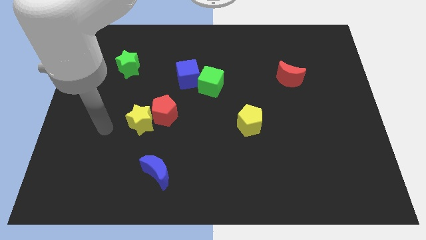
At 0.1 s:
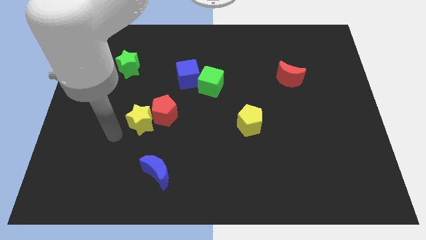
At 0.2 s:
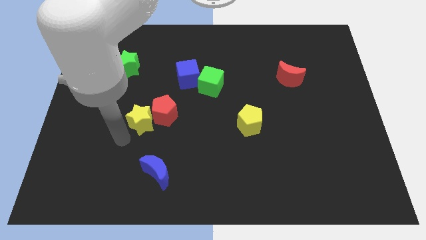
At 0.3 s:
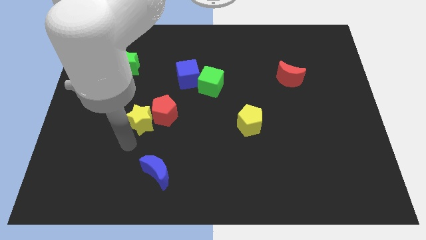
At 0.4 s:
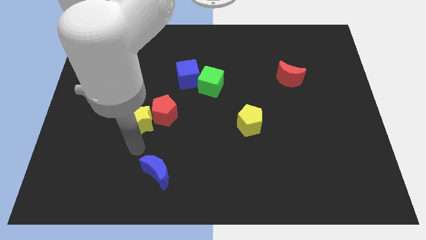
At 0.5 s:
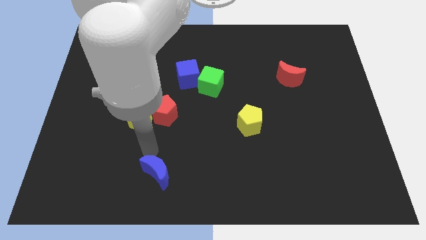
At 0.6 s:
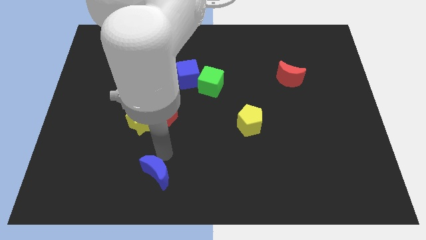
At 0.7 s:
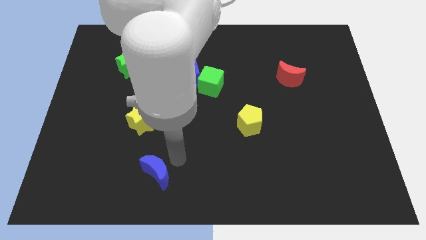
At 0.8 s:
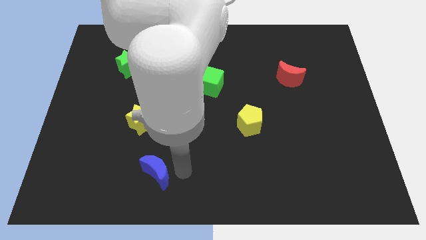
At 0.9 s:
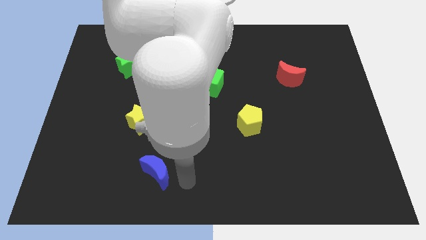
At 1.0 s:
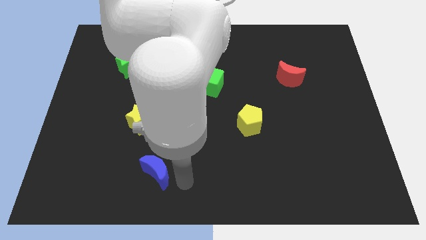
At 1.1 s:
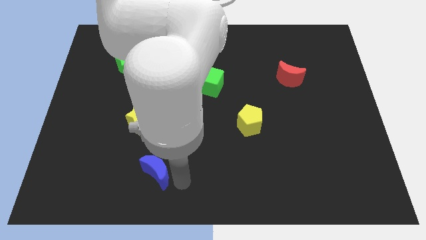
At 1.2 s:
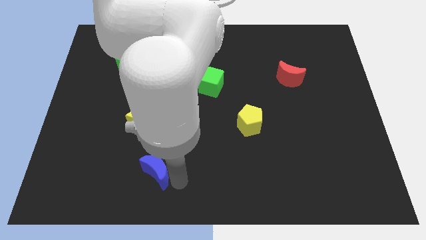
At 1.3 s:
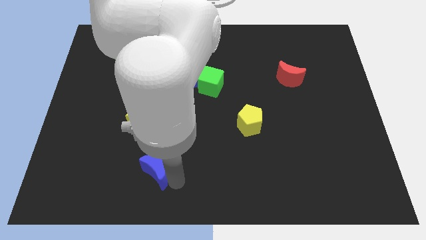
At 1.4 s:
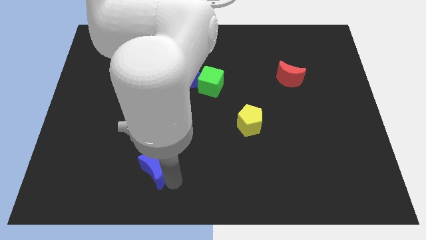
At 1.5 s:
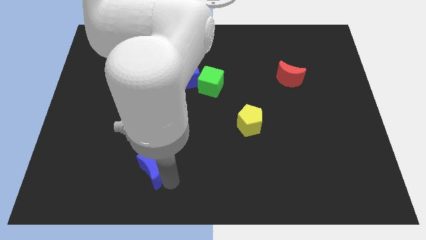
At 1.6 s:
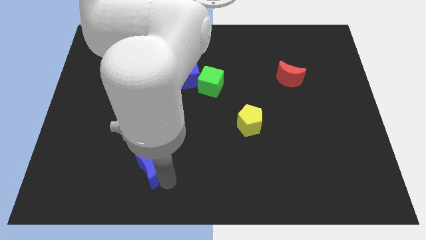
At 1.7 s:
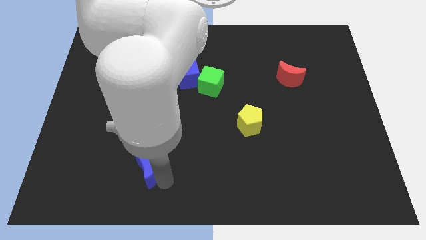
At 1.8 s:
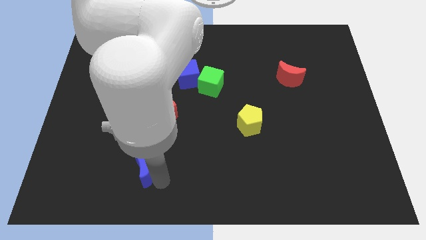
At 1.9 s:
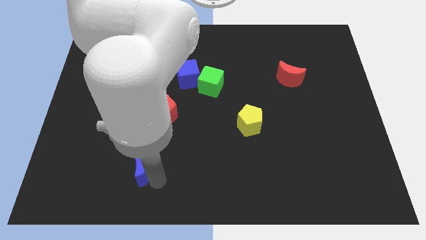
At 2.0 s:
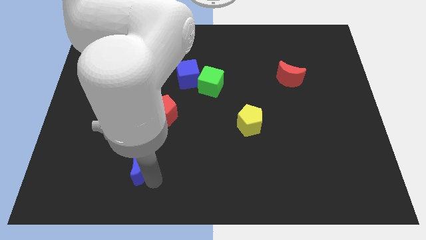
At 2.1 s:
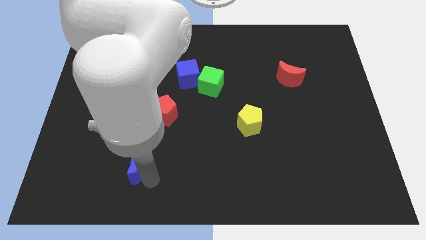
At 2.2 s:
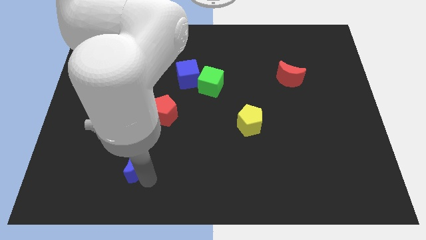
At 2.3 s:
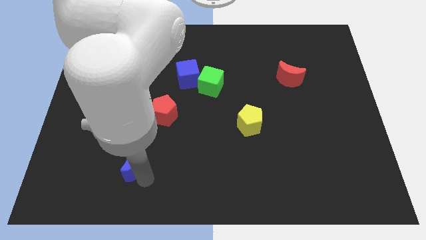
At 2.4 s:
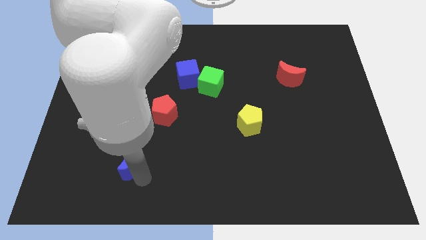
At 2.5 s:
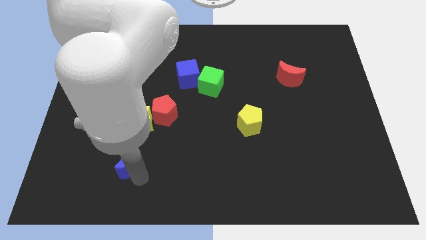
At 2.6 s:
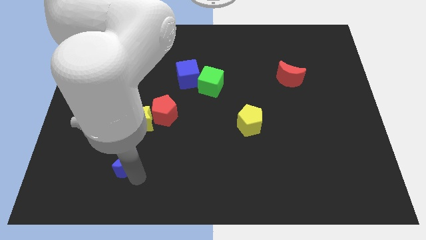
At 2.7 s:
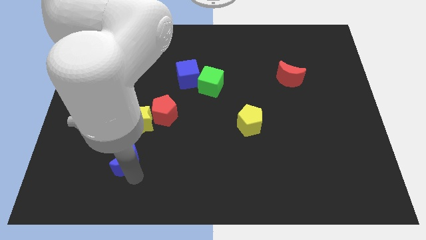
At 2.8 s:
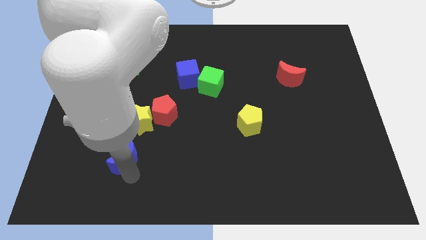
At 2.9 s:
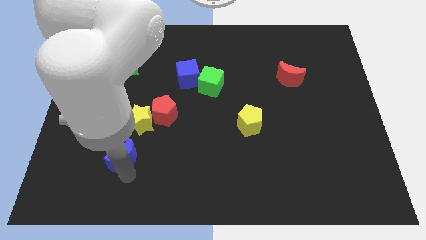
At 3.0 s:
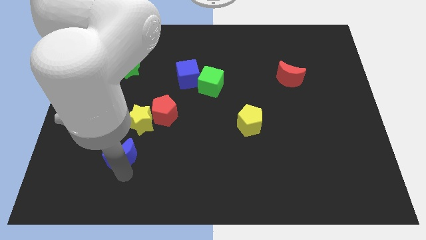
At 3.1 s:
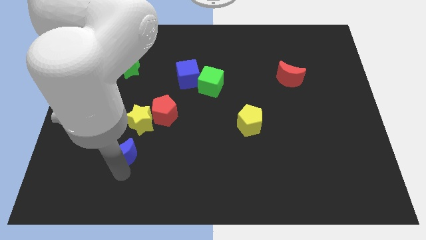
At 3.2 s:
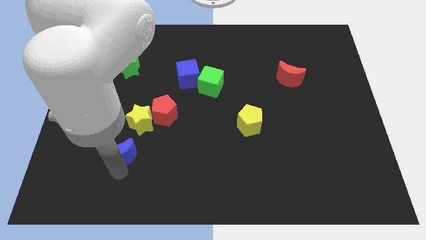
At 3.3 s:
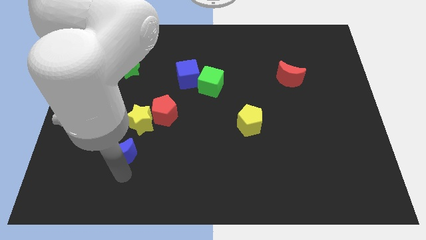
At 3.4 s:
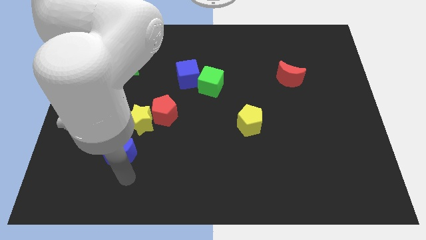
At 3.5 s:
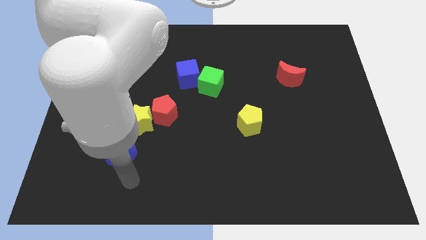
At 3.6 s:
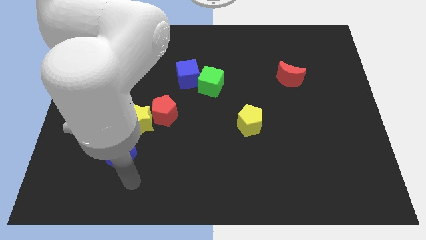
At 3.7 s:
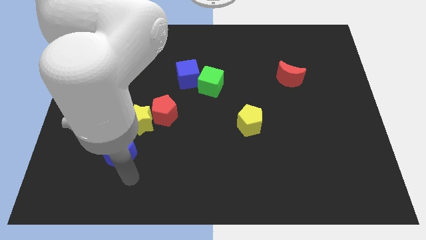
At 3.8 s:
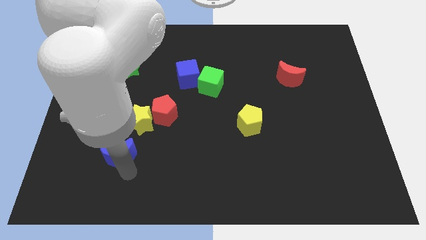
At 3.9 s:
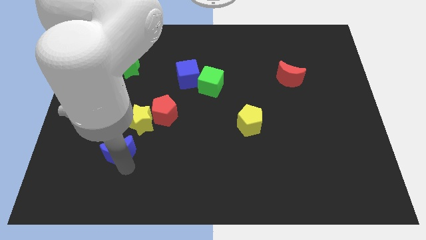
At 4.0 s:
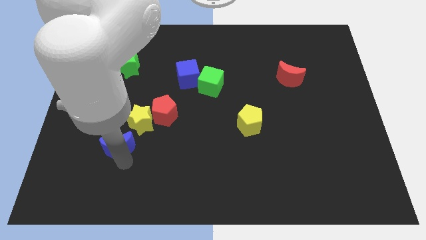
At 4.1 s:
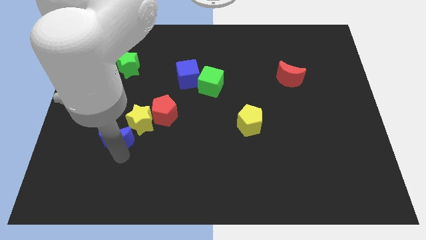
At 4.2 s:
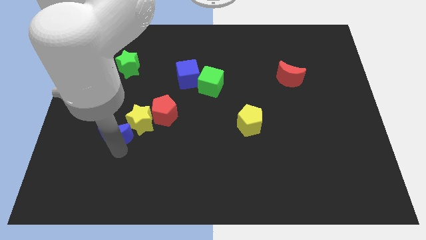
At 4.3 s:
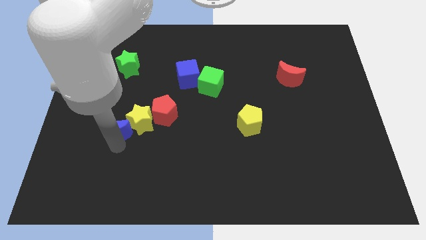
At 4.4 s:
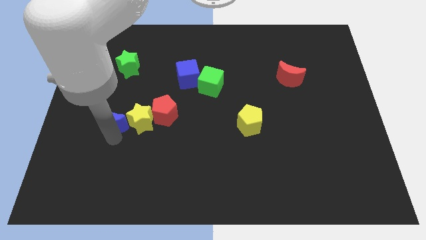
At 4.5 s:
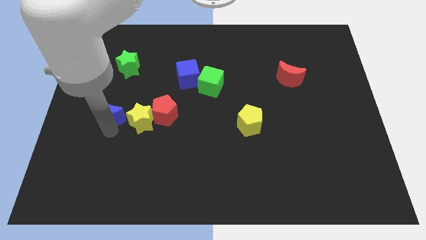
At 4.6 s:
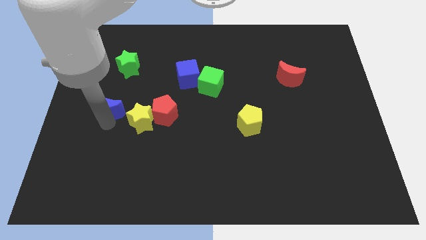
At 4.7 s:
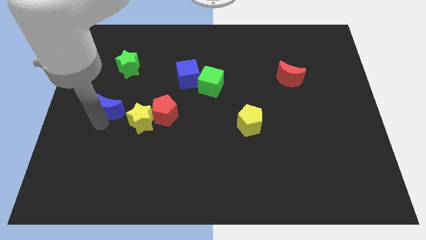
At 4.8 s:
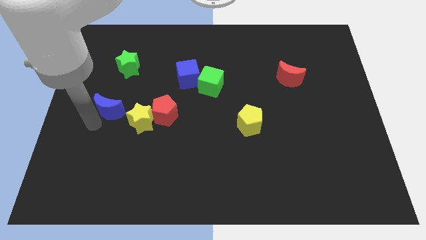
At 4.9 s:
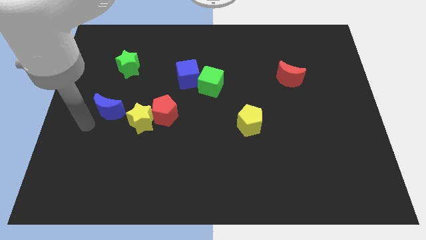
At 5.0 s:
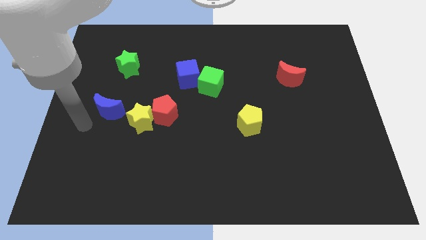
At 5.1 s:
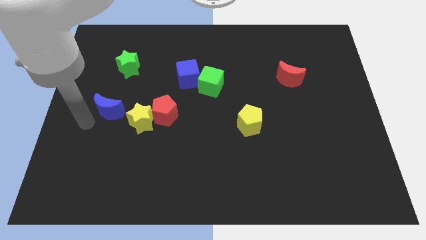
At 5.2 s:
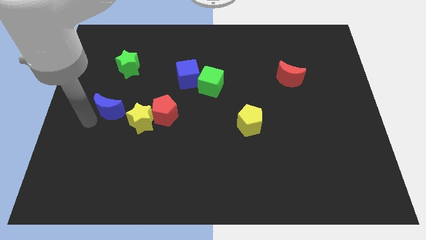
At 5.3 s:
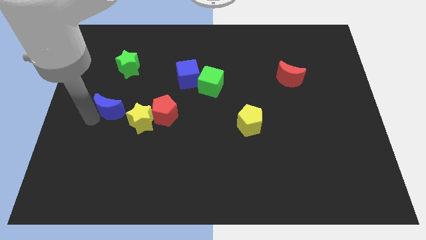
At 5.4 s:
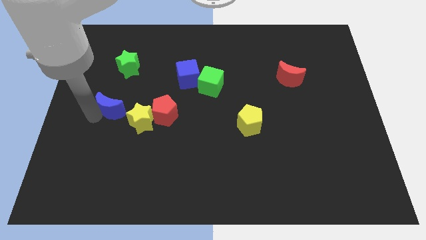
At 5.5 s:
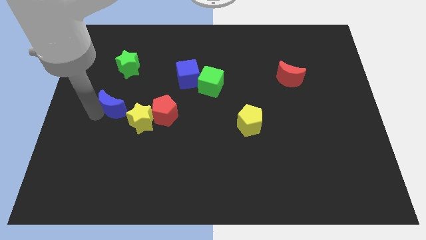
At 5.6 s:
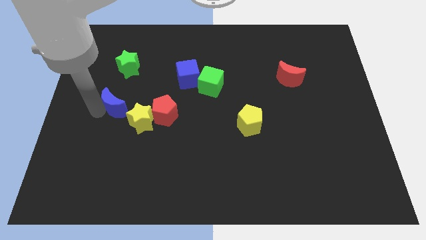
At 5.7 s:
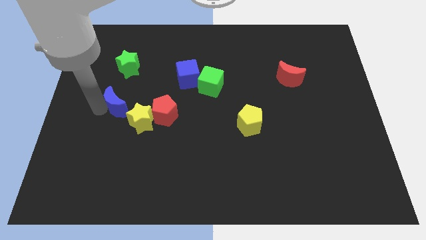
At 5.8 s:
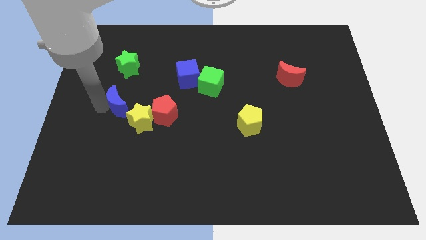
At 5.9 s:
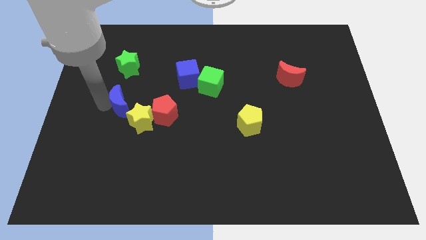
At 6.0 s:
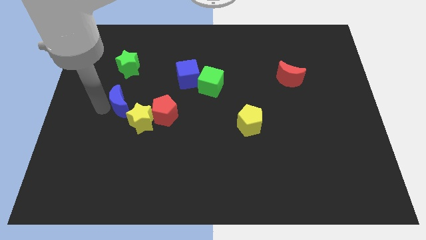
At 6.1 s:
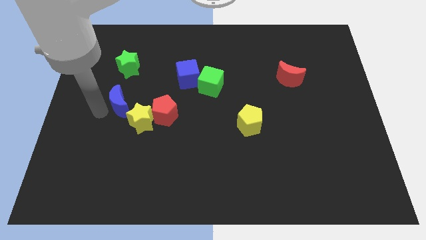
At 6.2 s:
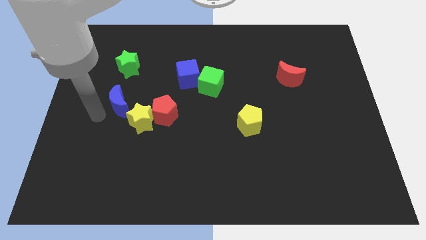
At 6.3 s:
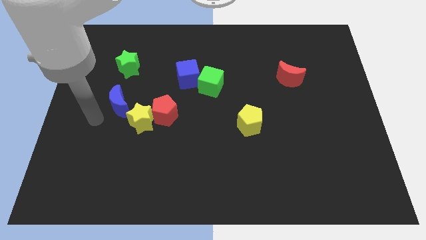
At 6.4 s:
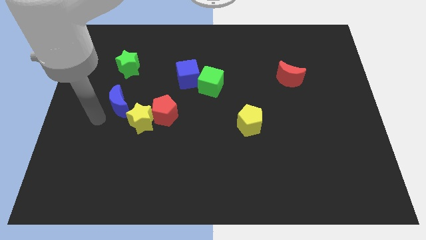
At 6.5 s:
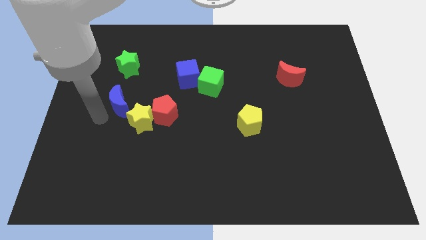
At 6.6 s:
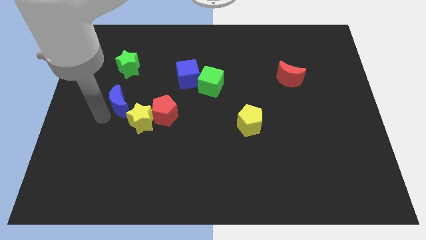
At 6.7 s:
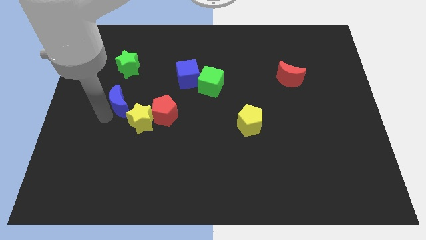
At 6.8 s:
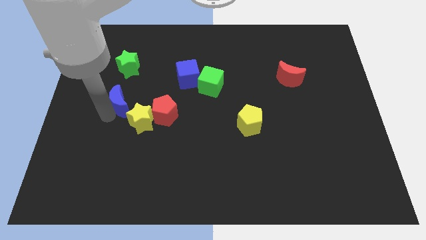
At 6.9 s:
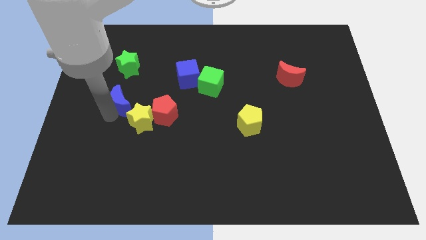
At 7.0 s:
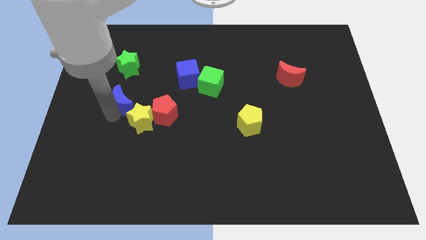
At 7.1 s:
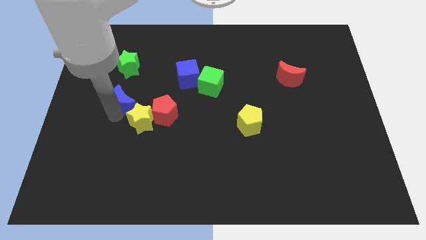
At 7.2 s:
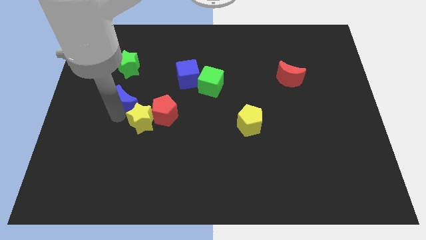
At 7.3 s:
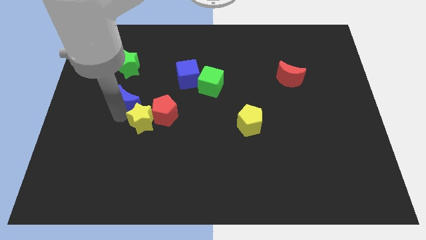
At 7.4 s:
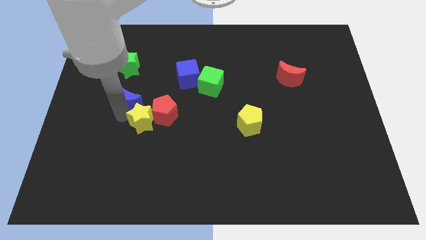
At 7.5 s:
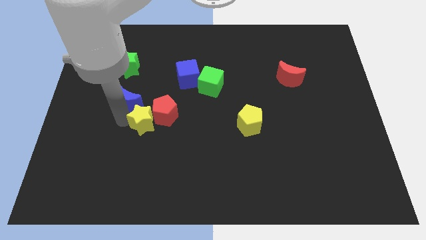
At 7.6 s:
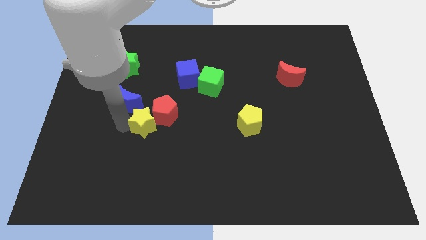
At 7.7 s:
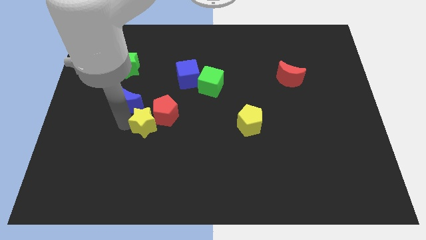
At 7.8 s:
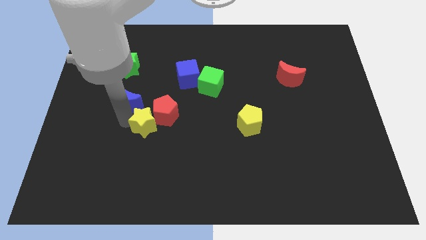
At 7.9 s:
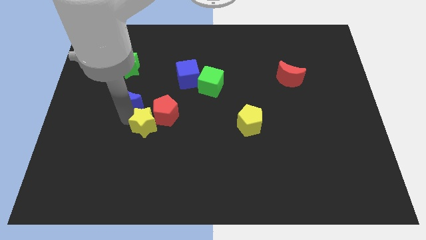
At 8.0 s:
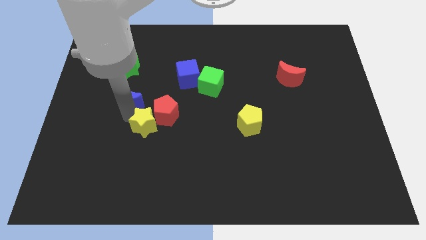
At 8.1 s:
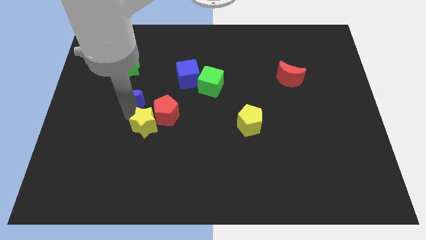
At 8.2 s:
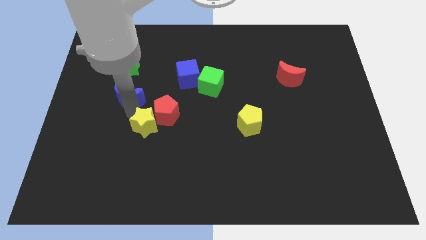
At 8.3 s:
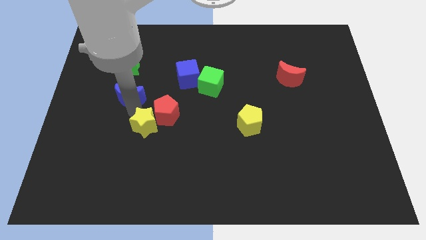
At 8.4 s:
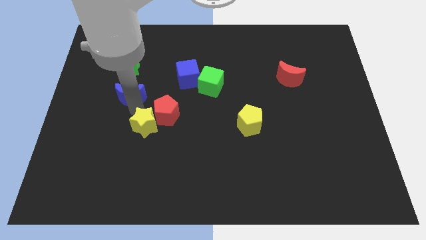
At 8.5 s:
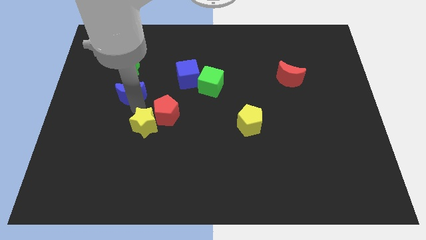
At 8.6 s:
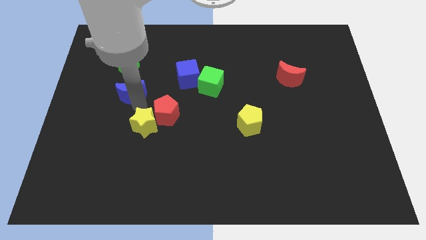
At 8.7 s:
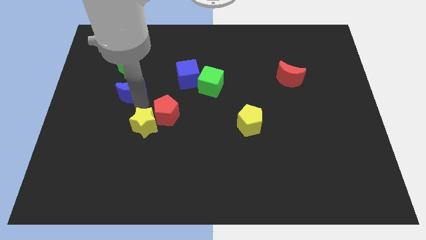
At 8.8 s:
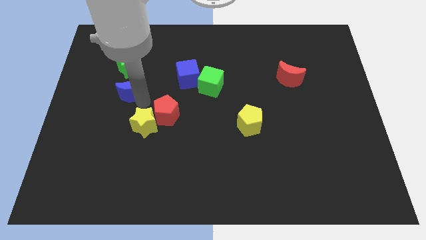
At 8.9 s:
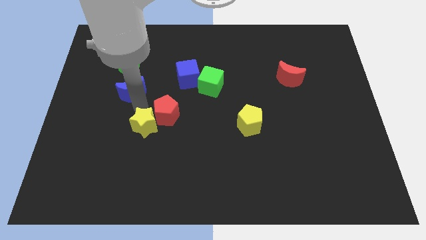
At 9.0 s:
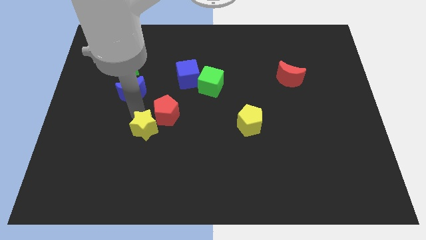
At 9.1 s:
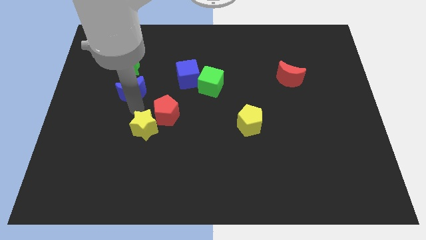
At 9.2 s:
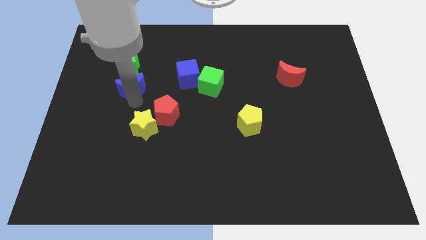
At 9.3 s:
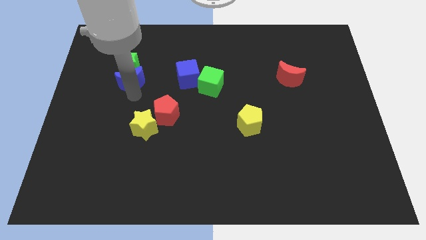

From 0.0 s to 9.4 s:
put the blue moon to the green star
